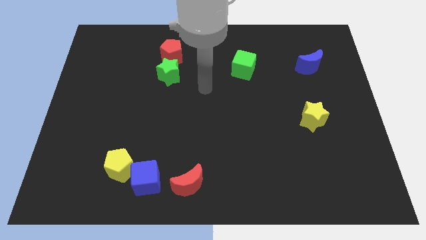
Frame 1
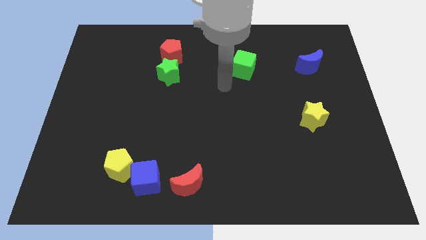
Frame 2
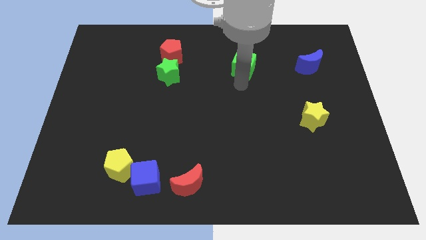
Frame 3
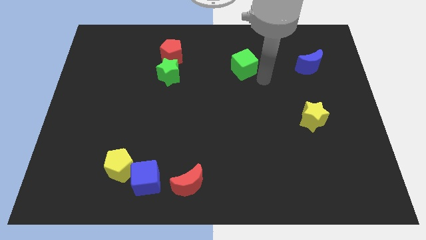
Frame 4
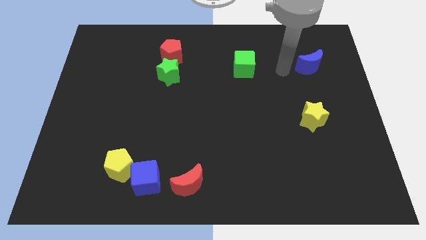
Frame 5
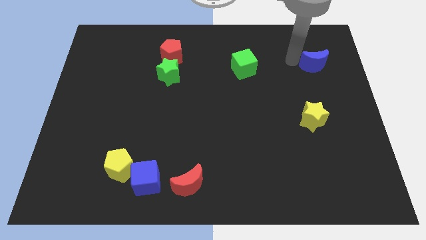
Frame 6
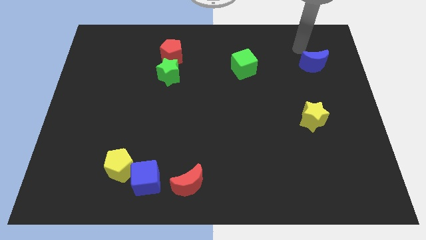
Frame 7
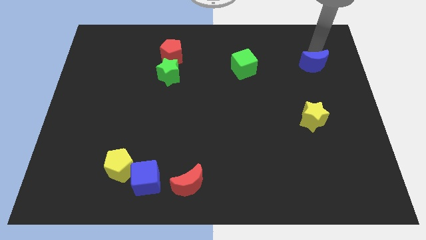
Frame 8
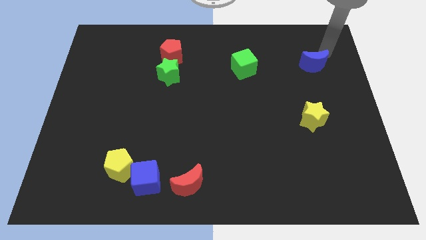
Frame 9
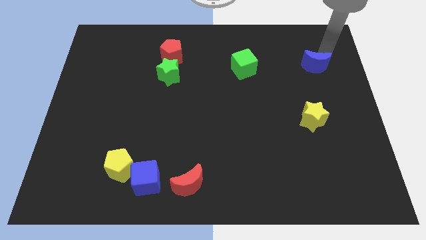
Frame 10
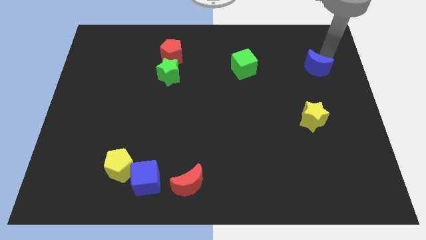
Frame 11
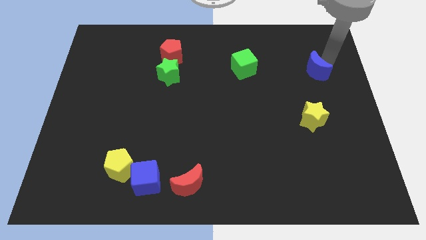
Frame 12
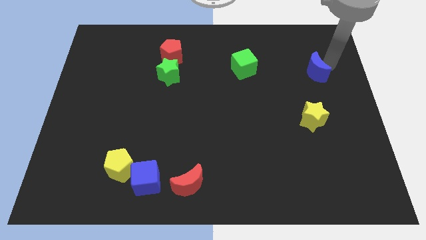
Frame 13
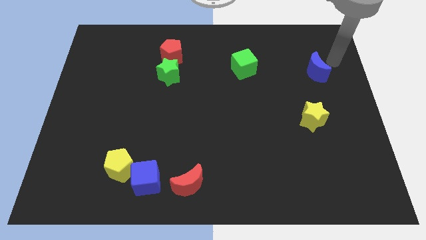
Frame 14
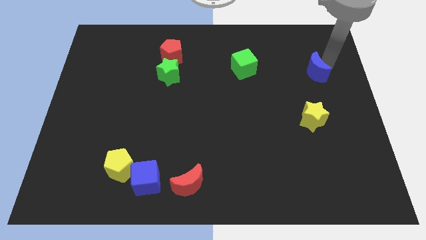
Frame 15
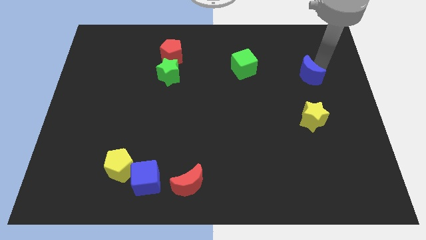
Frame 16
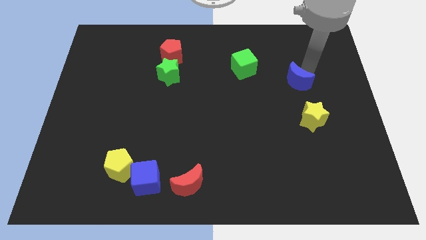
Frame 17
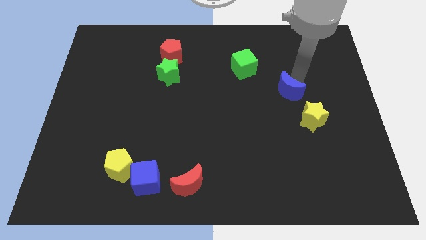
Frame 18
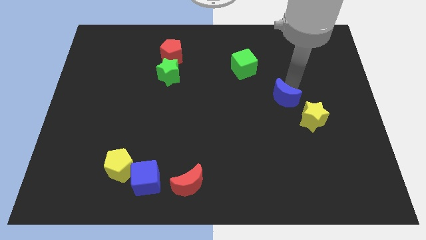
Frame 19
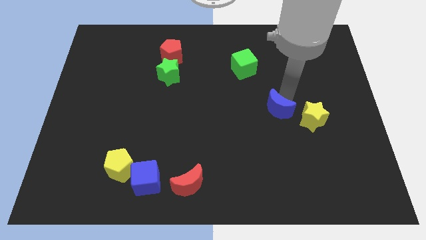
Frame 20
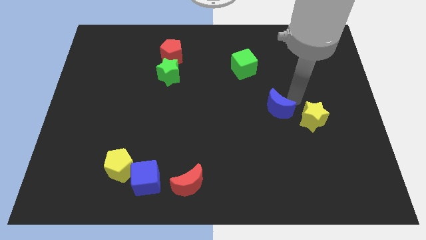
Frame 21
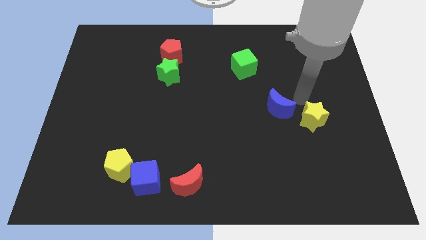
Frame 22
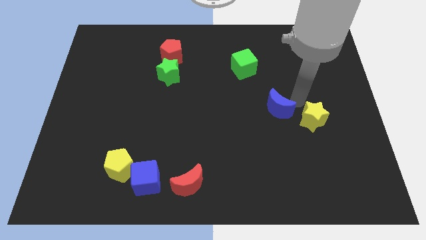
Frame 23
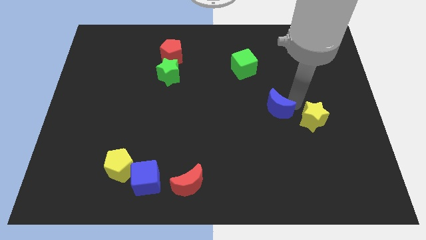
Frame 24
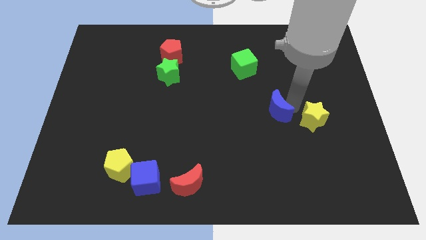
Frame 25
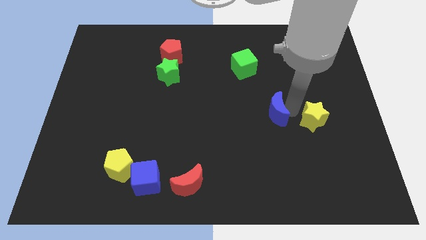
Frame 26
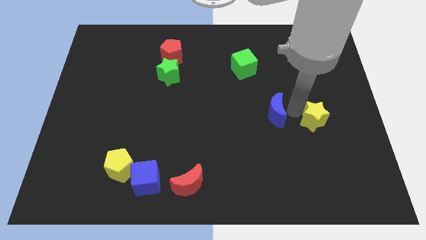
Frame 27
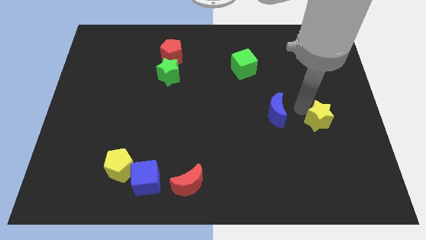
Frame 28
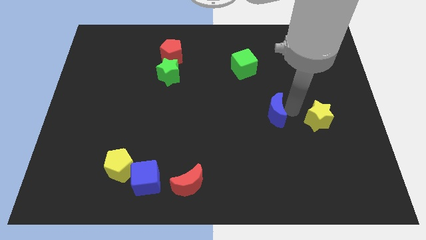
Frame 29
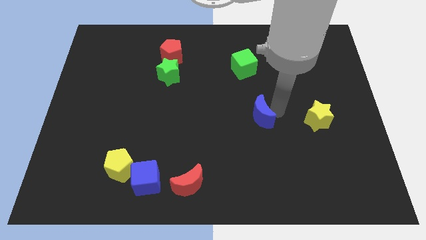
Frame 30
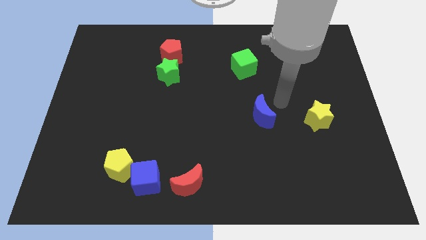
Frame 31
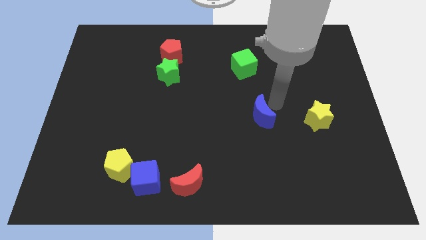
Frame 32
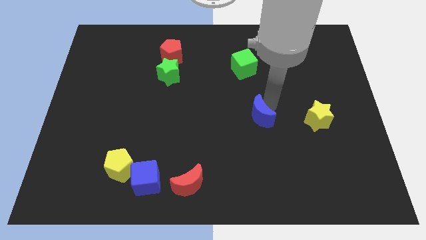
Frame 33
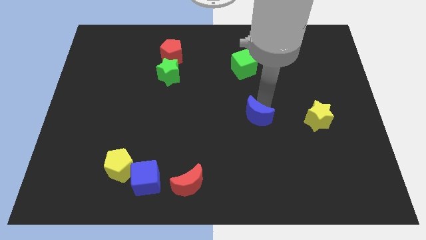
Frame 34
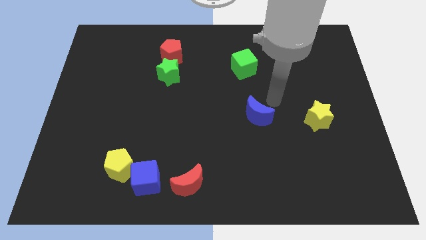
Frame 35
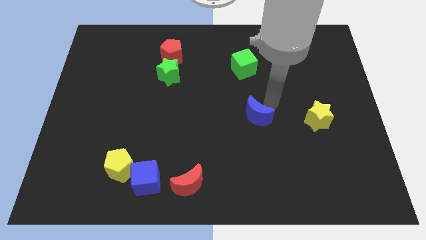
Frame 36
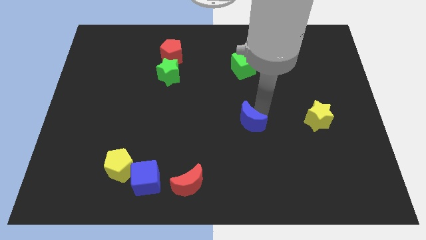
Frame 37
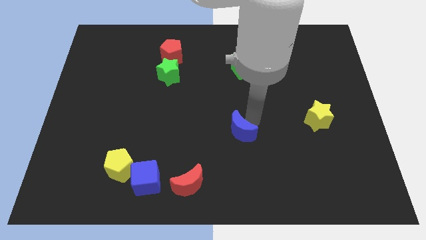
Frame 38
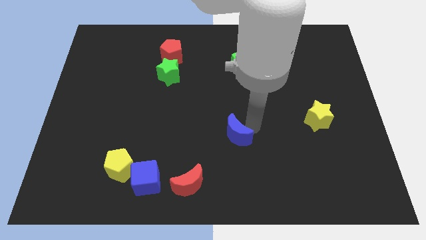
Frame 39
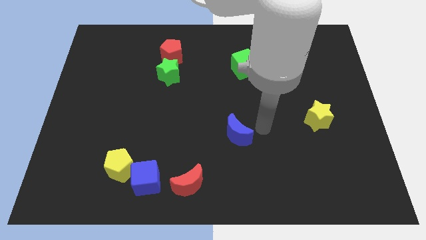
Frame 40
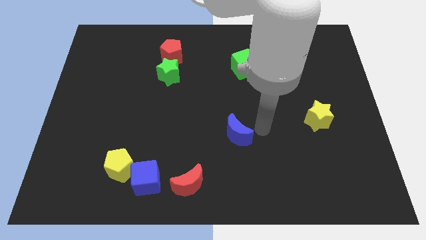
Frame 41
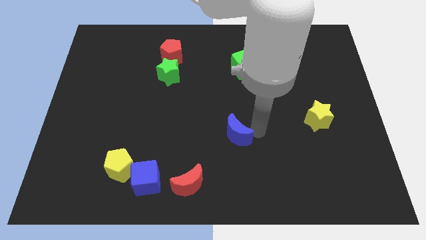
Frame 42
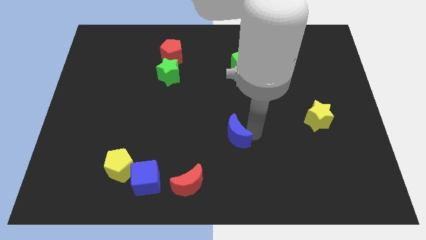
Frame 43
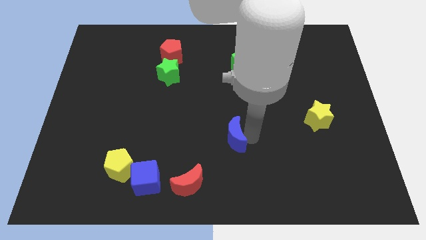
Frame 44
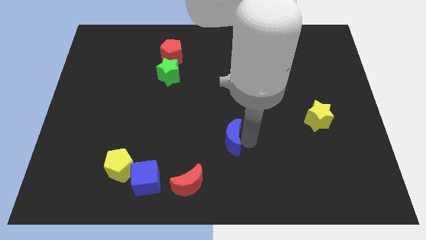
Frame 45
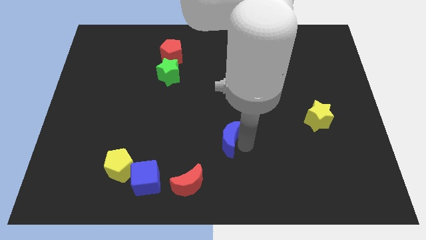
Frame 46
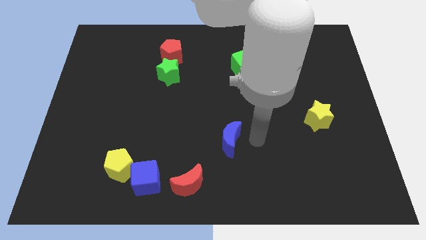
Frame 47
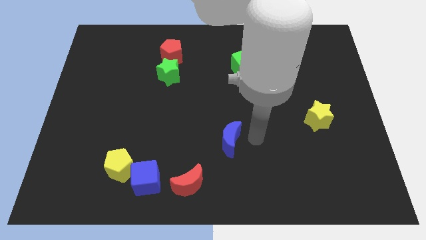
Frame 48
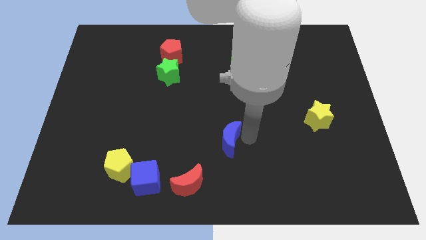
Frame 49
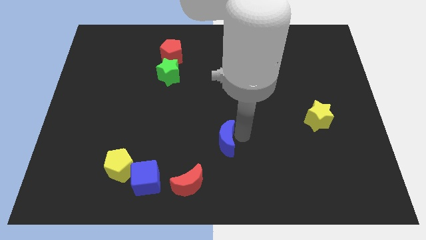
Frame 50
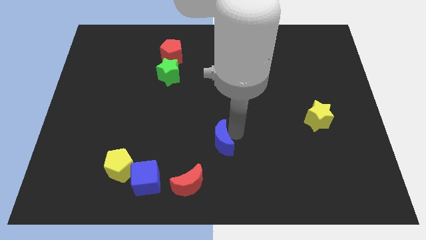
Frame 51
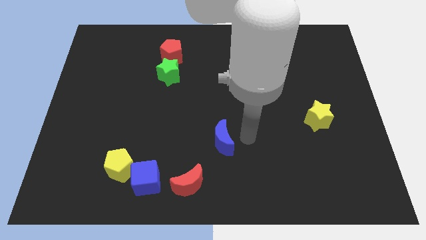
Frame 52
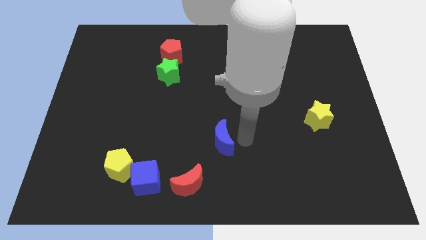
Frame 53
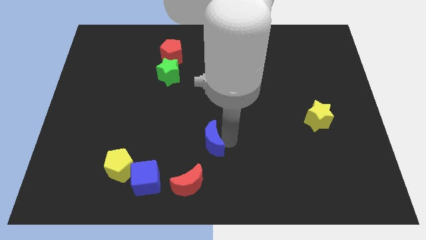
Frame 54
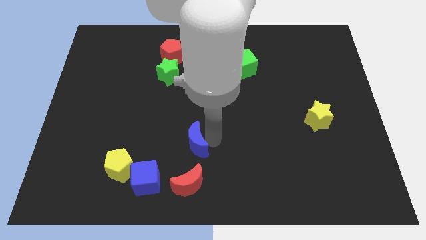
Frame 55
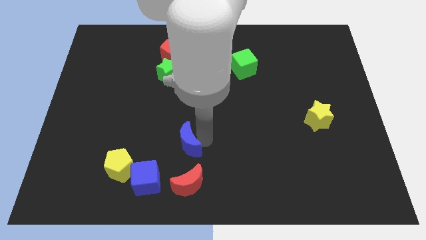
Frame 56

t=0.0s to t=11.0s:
push the blue moon diagonally up and to the right of the blue cube

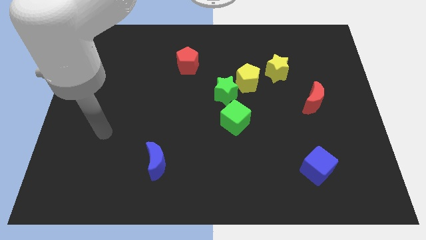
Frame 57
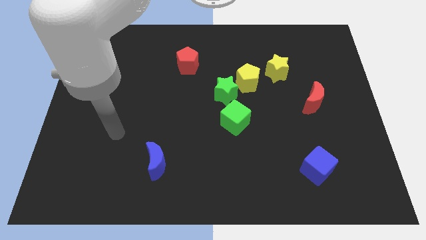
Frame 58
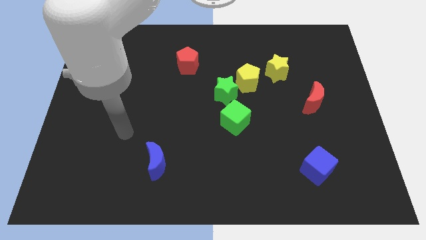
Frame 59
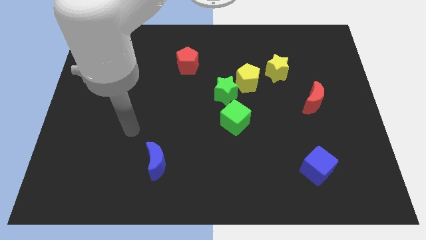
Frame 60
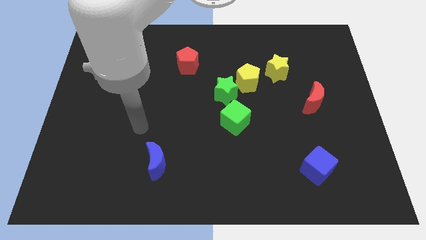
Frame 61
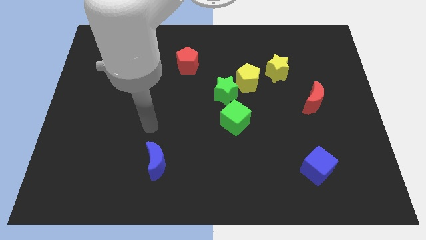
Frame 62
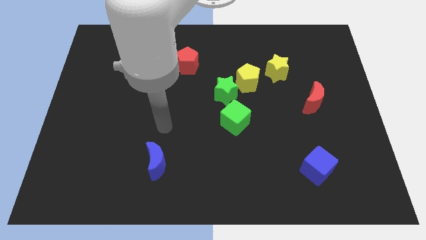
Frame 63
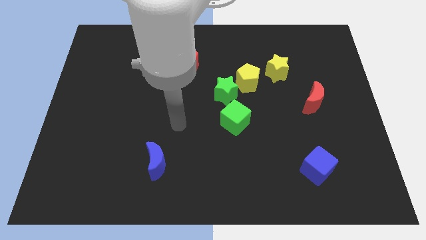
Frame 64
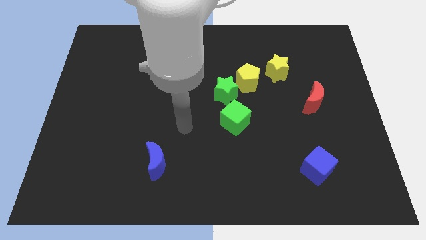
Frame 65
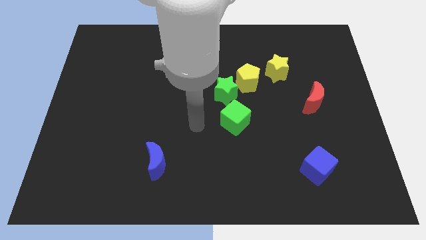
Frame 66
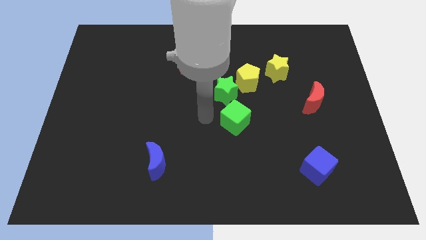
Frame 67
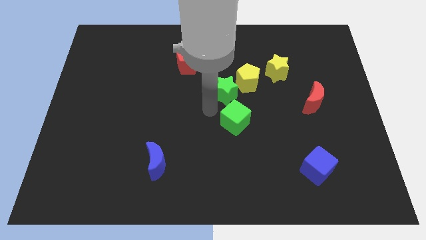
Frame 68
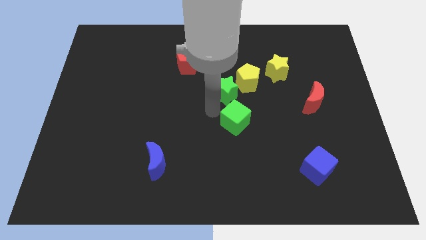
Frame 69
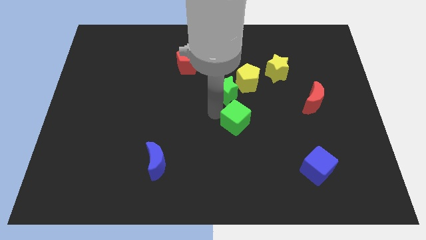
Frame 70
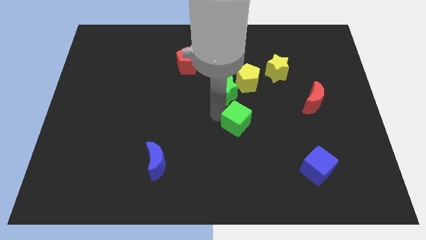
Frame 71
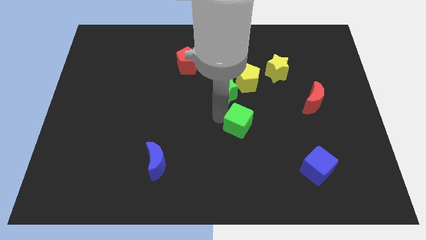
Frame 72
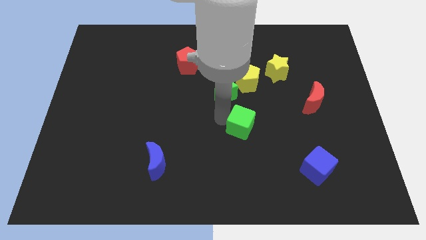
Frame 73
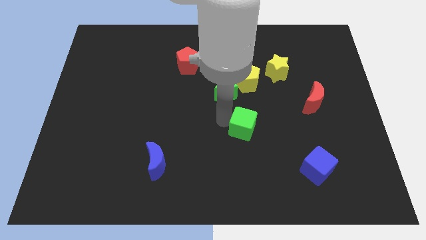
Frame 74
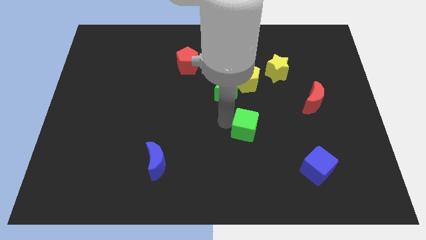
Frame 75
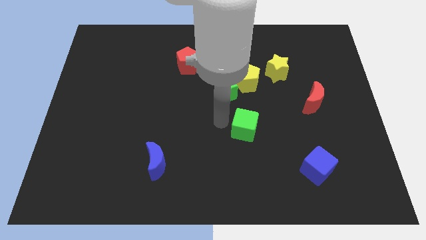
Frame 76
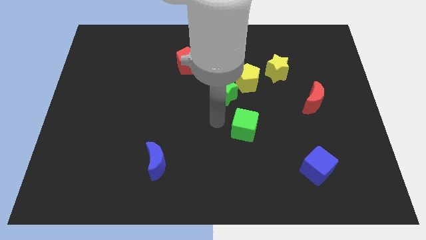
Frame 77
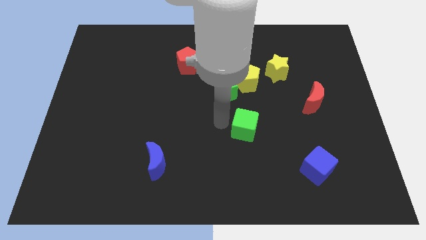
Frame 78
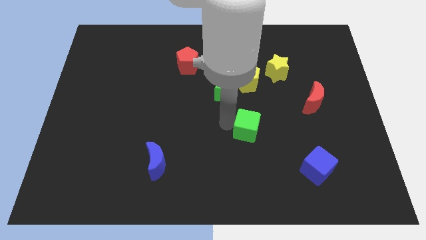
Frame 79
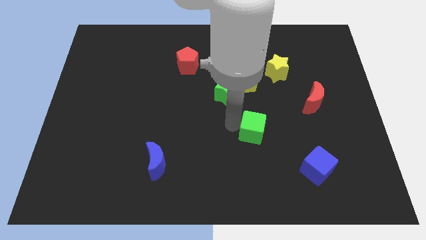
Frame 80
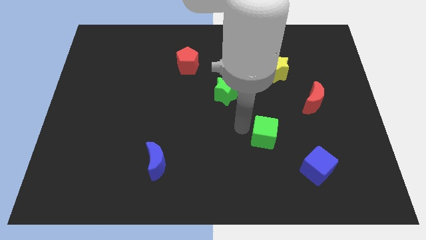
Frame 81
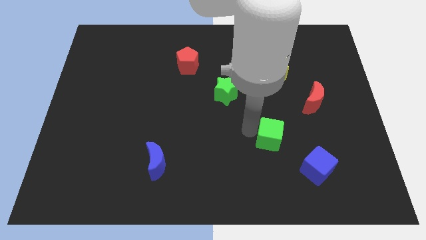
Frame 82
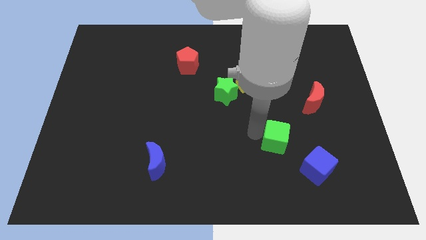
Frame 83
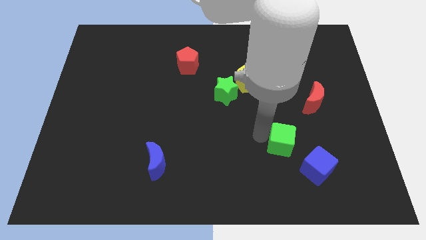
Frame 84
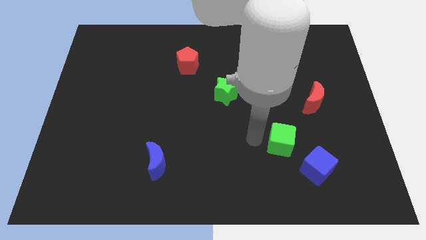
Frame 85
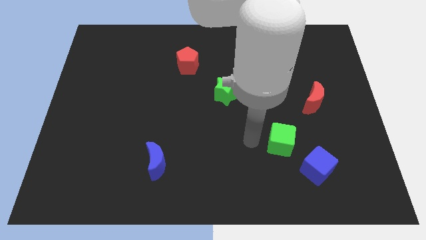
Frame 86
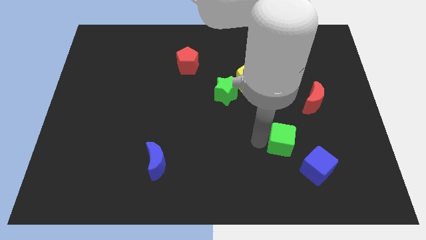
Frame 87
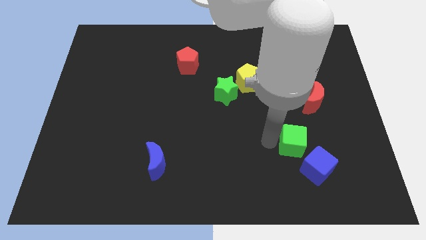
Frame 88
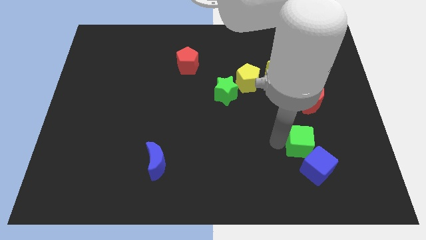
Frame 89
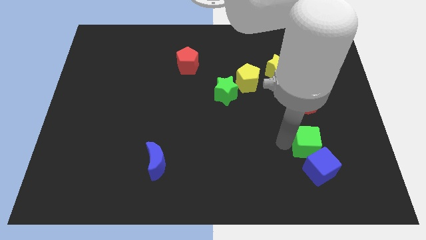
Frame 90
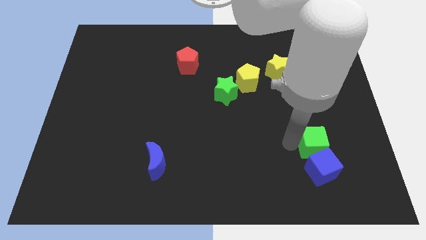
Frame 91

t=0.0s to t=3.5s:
slide the green cube diagonally up and to the right of the blue cube
